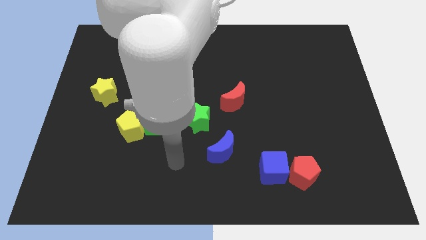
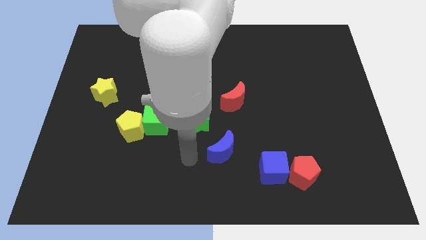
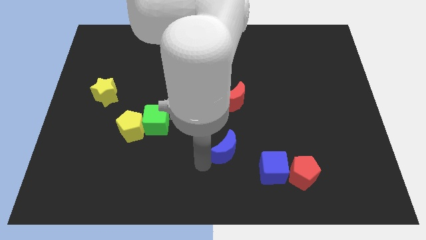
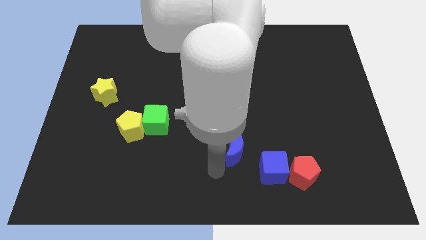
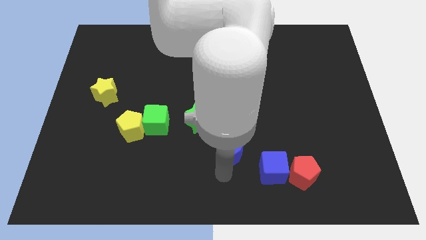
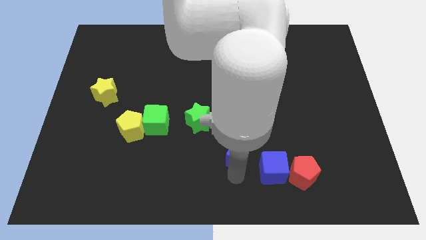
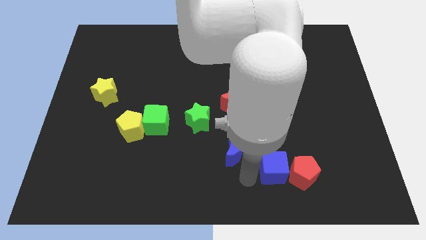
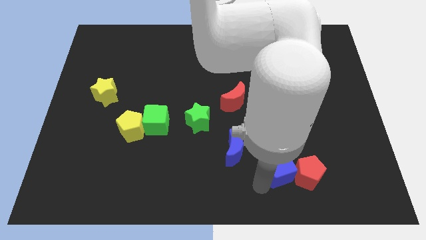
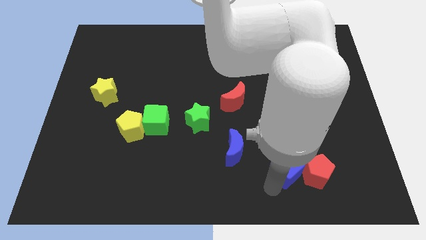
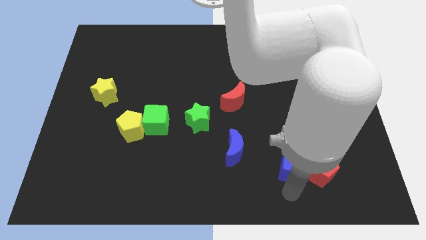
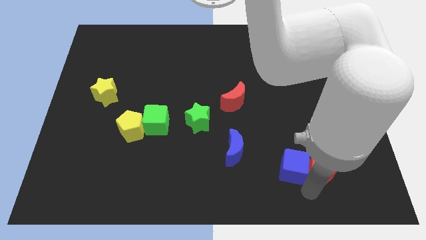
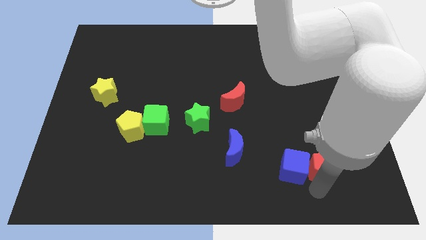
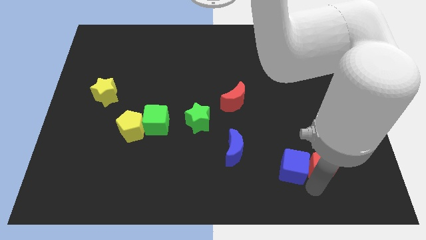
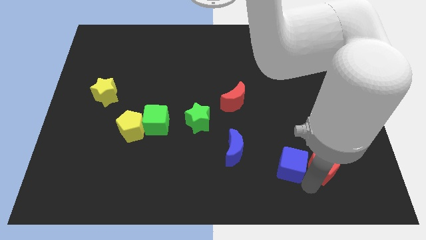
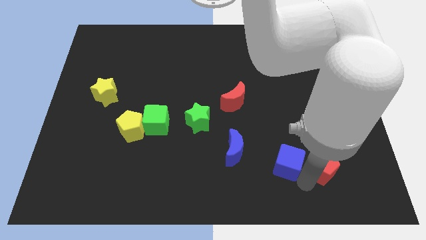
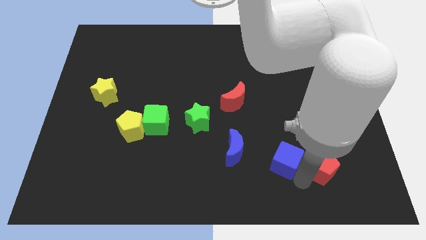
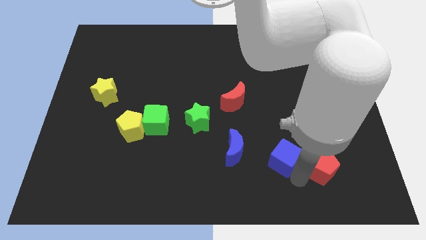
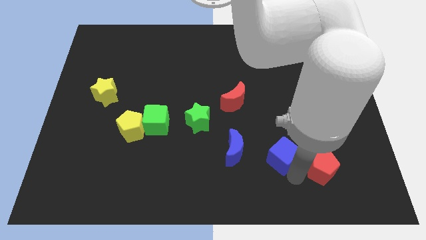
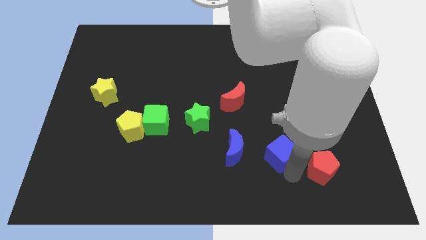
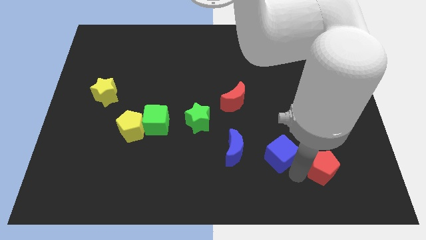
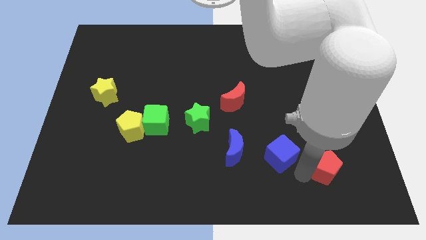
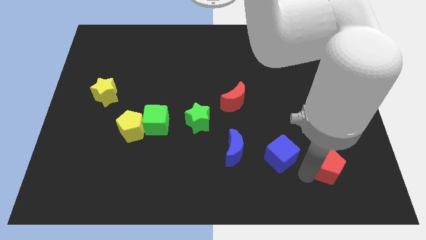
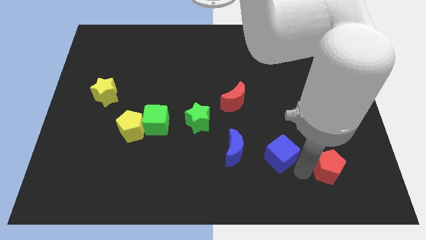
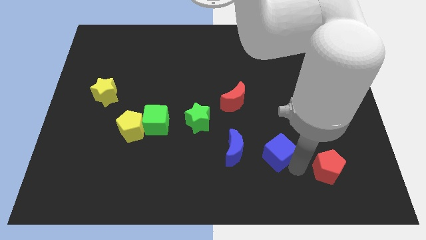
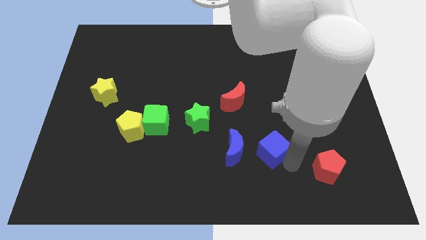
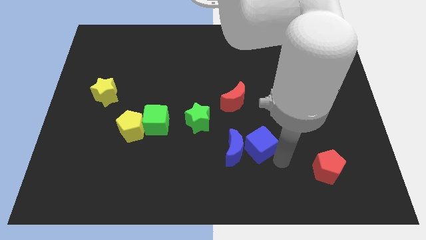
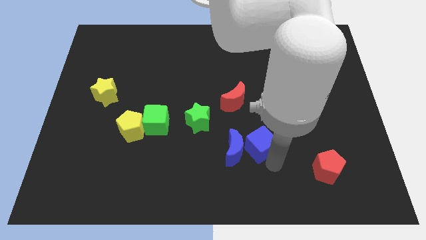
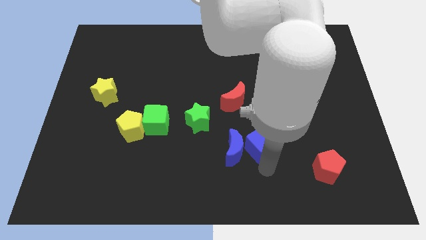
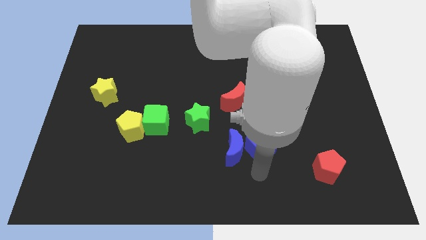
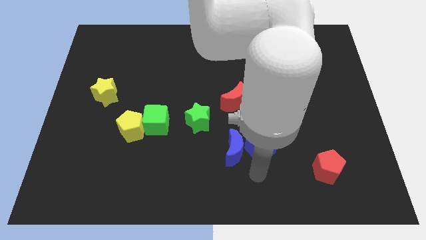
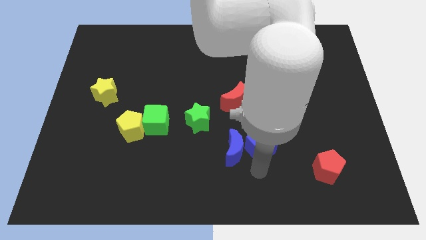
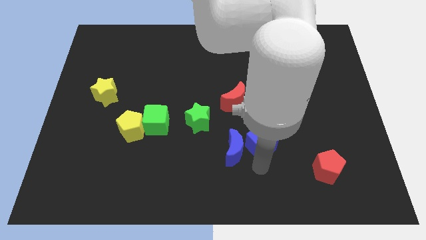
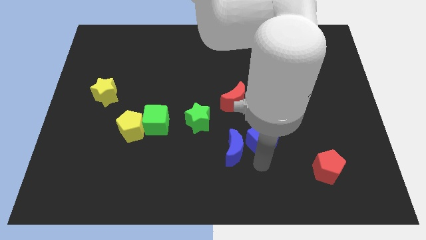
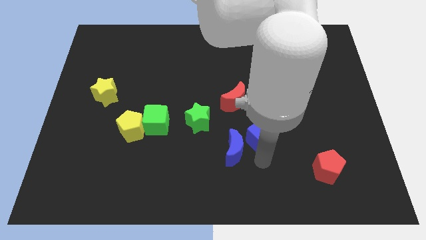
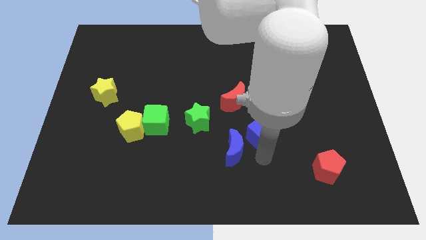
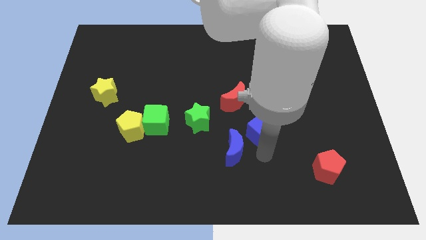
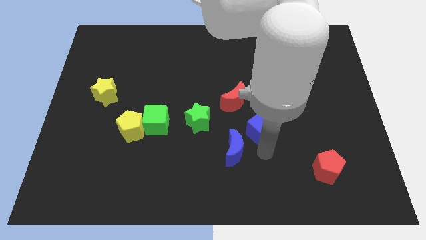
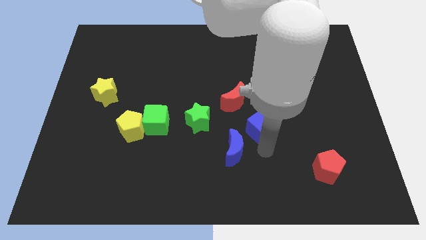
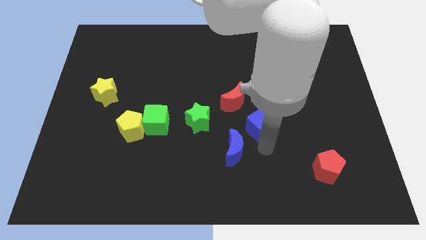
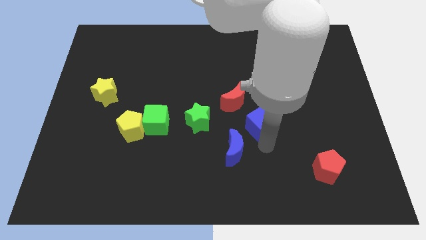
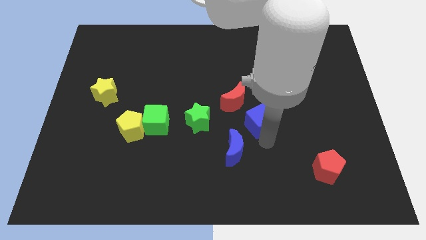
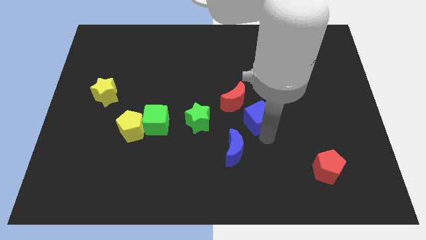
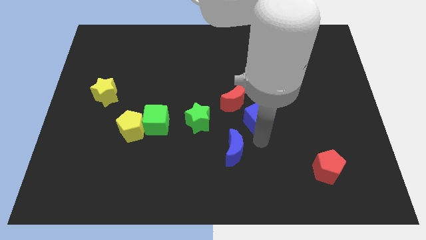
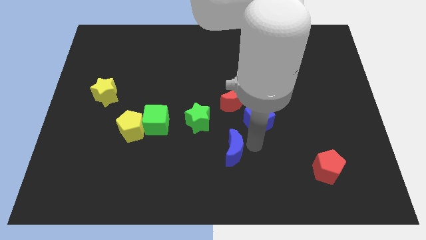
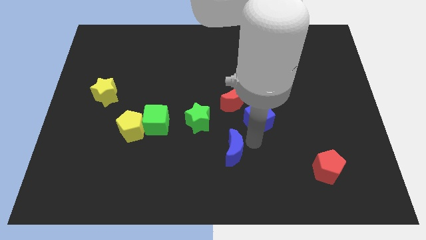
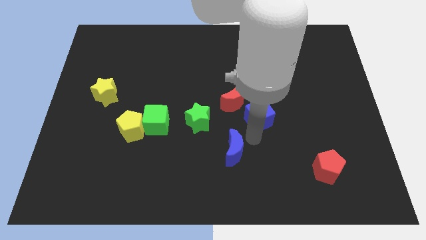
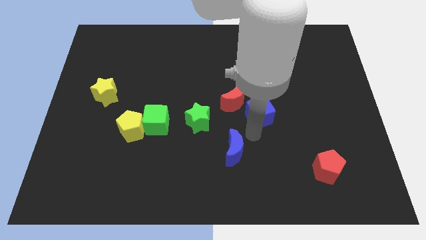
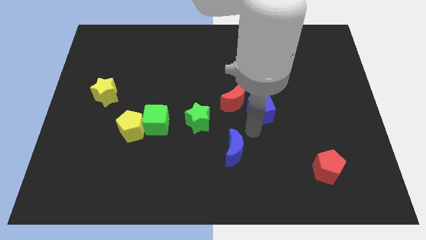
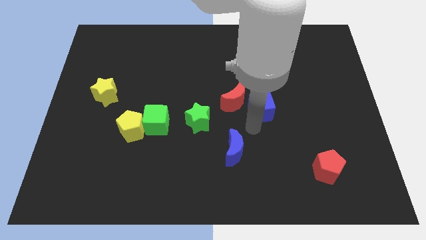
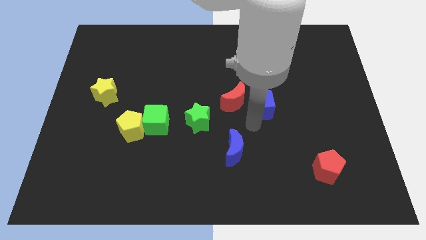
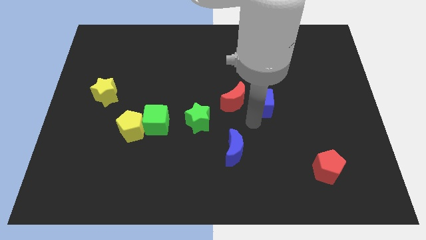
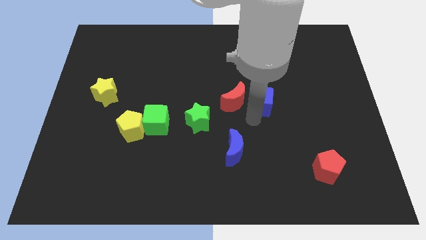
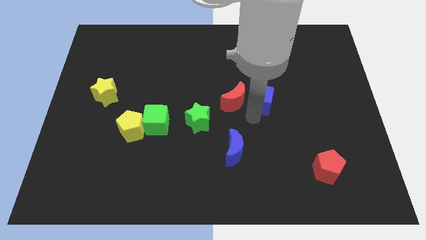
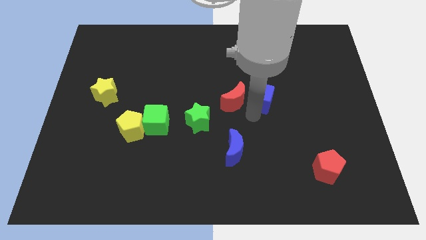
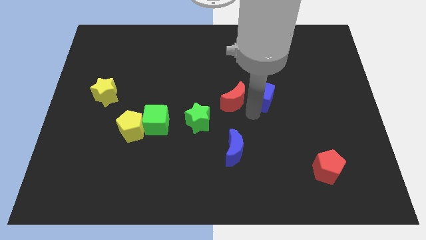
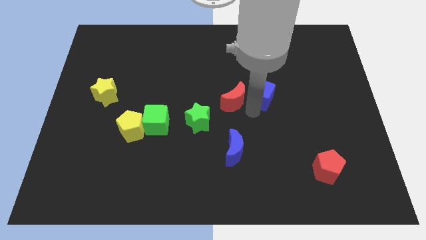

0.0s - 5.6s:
slide the blue cube up

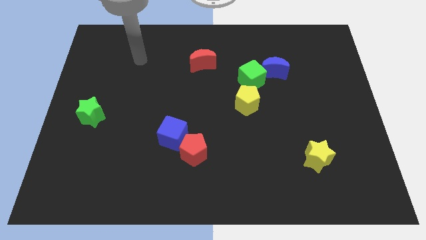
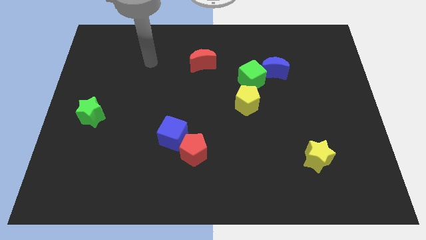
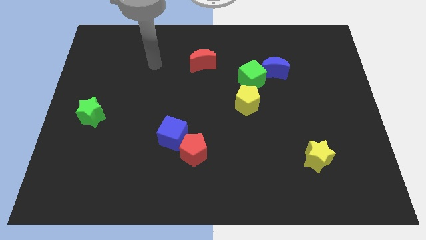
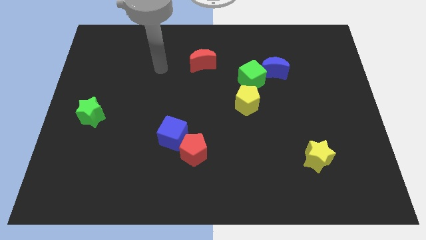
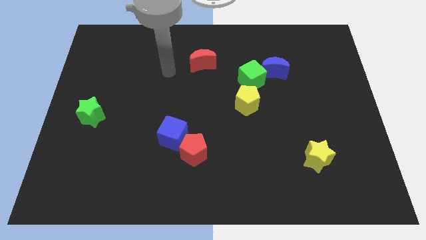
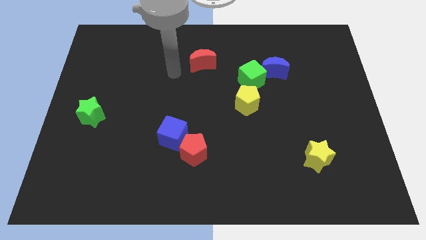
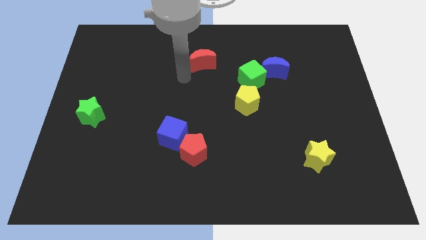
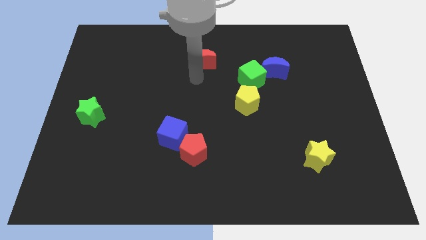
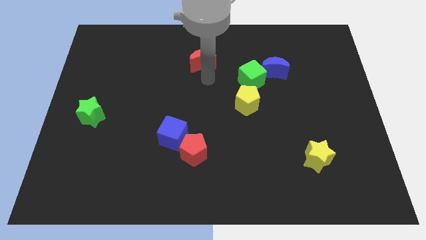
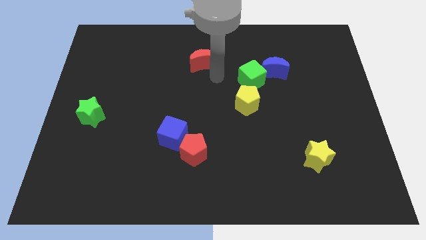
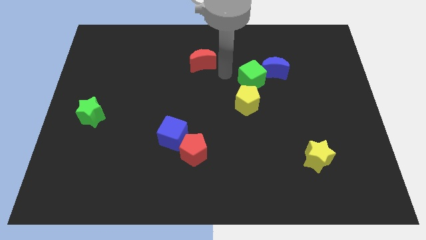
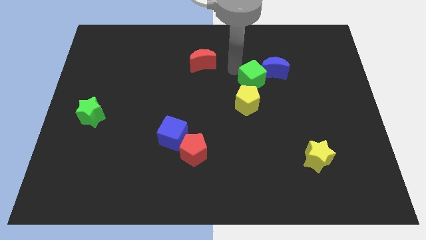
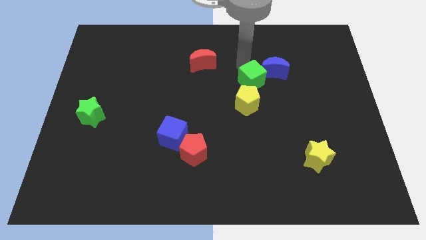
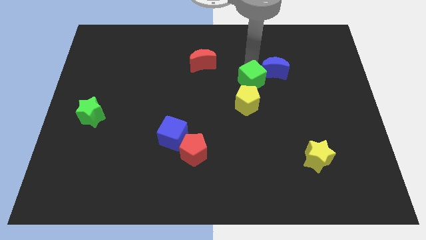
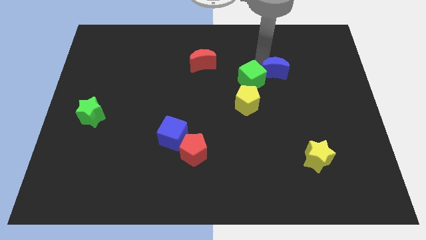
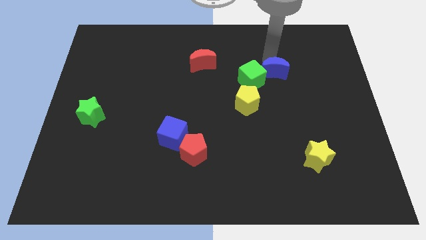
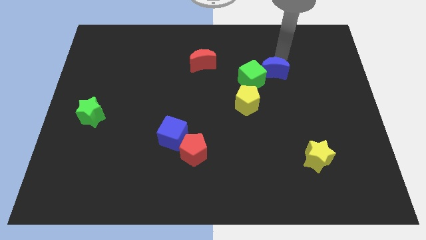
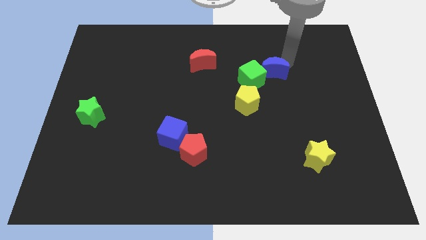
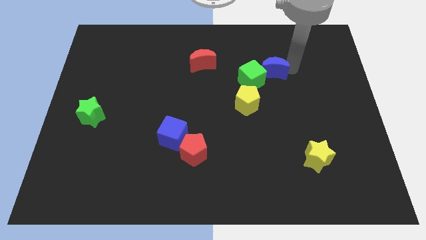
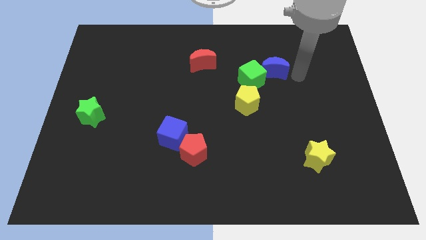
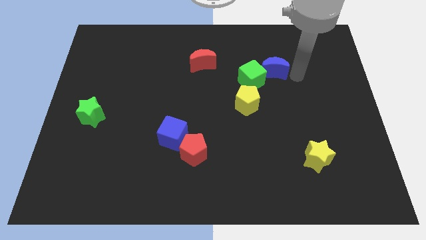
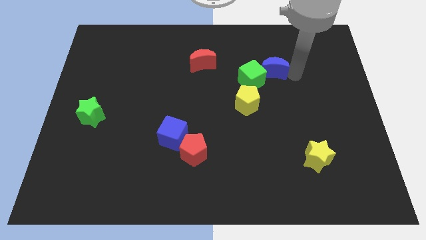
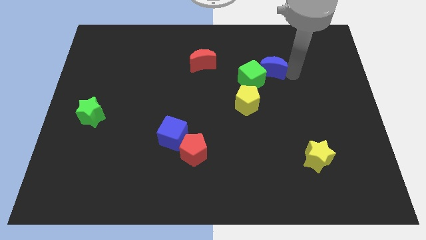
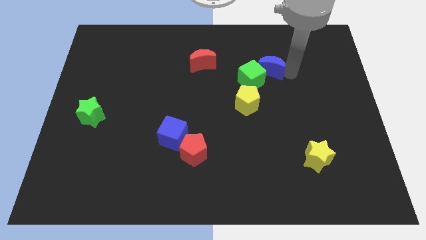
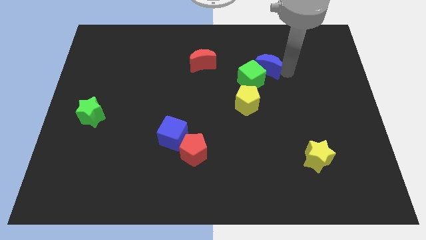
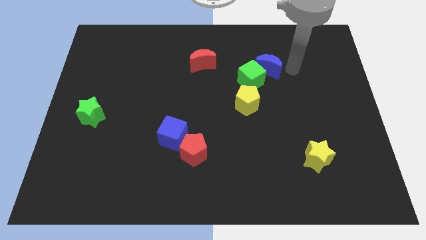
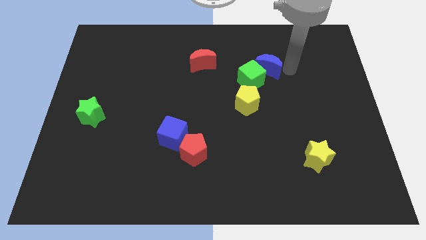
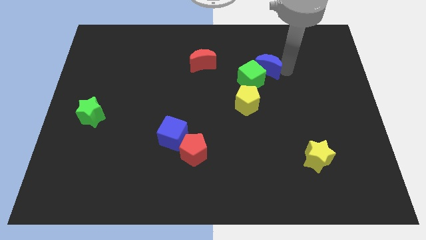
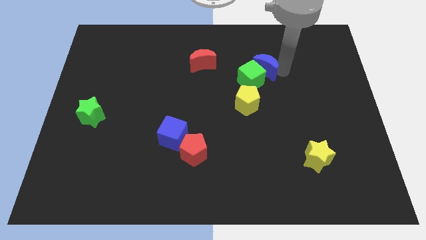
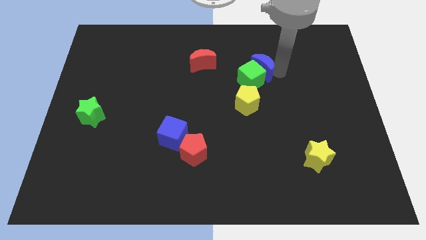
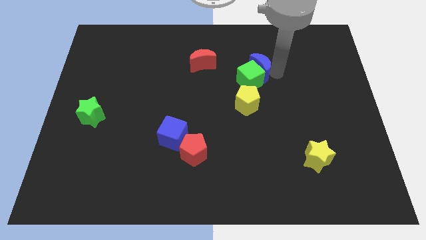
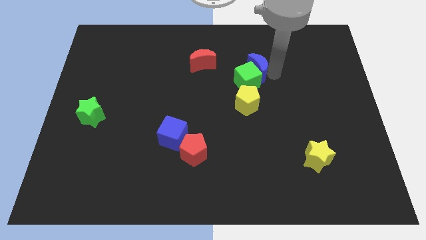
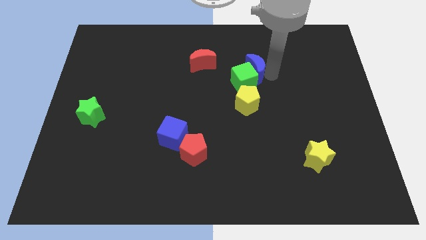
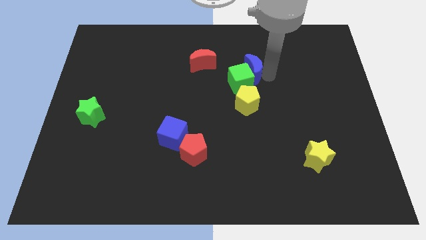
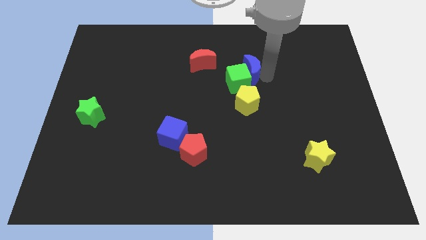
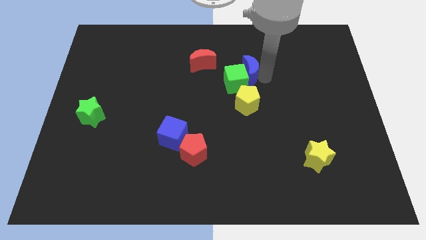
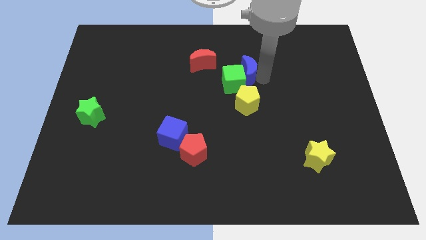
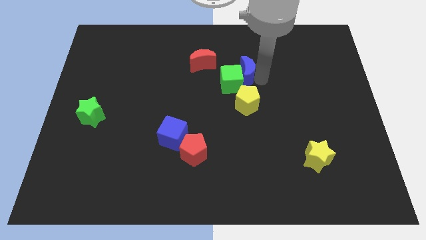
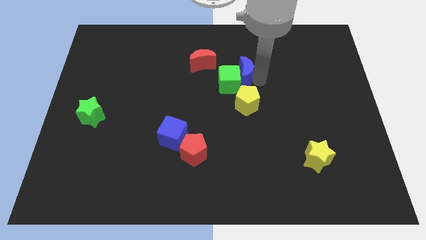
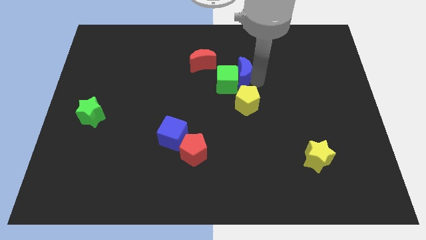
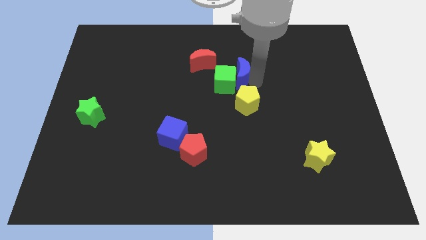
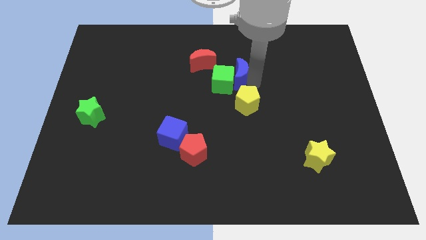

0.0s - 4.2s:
slightly slide the blue moon down and to the left
